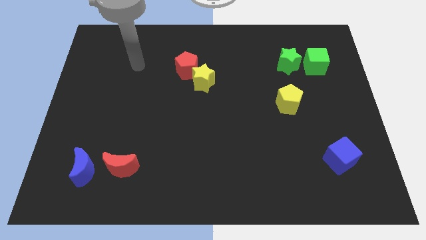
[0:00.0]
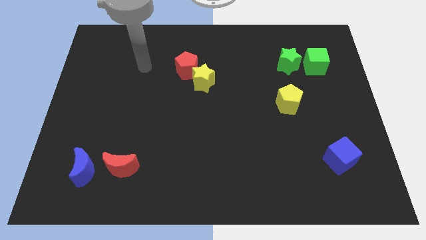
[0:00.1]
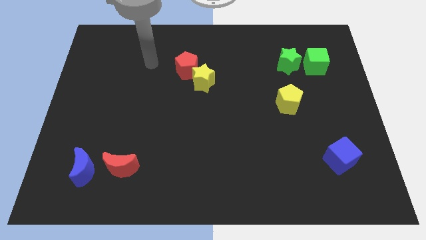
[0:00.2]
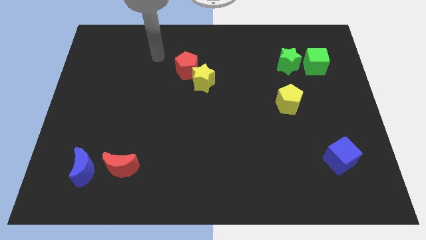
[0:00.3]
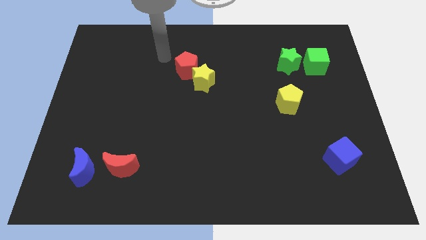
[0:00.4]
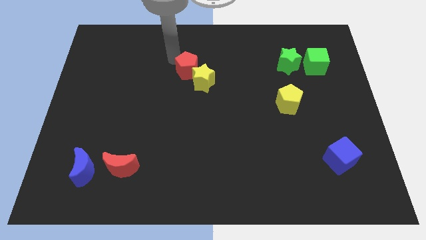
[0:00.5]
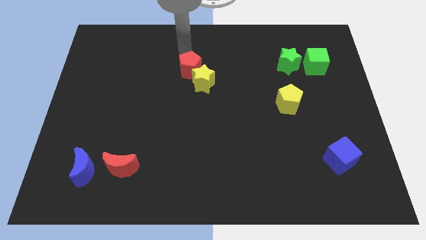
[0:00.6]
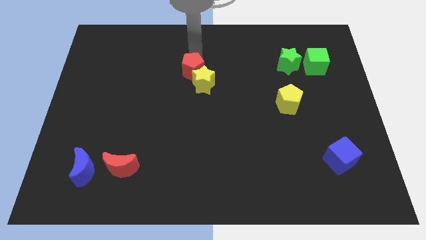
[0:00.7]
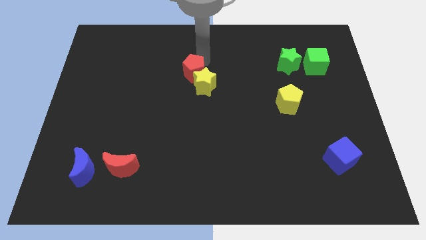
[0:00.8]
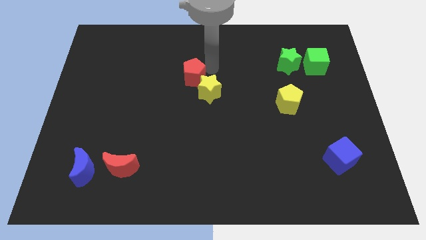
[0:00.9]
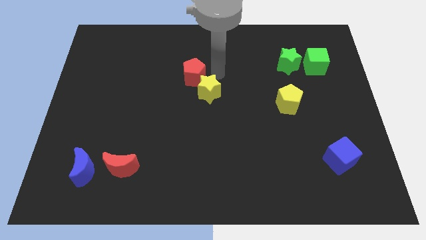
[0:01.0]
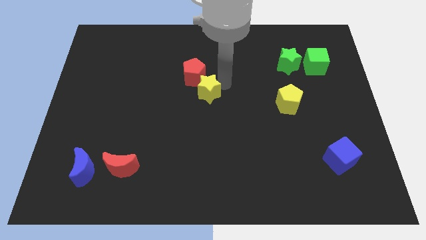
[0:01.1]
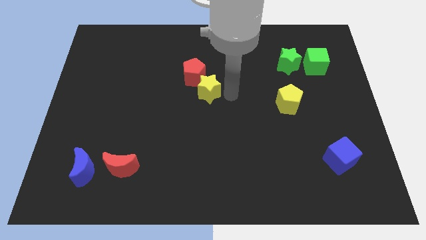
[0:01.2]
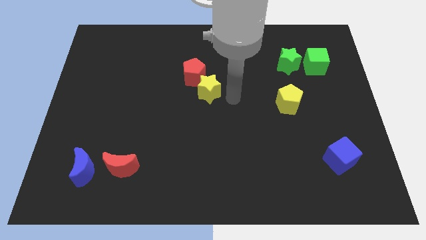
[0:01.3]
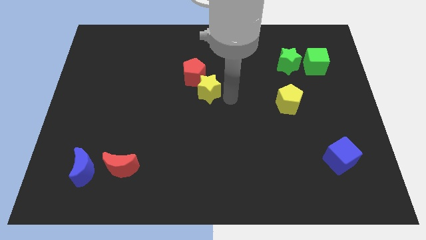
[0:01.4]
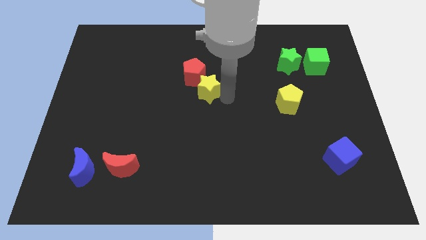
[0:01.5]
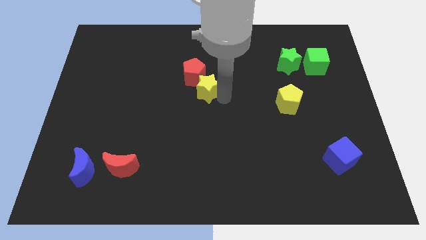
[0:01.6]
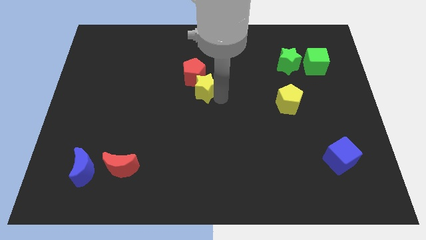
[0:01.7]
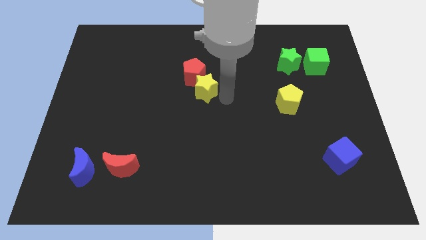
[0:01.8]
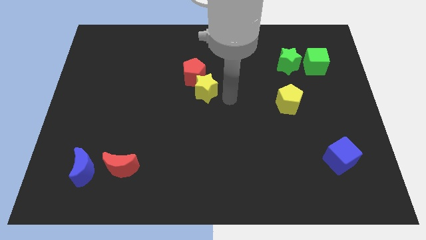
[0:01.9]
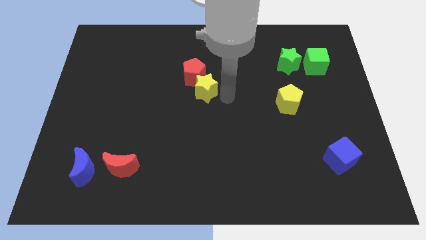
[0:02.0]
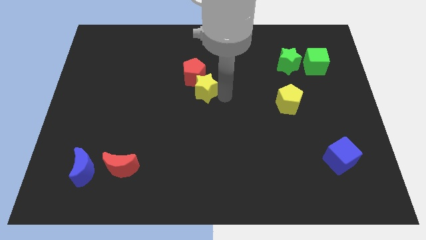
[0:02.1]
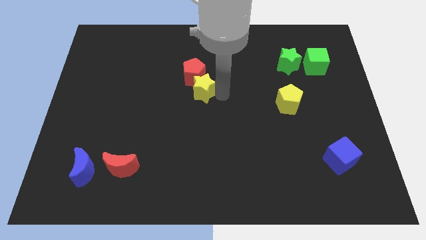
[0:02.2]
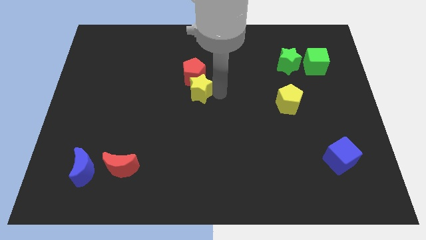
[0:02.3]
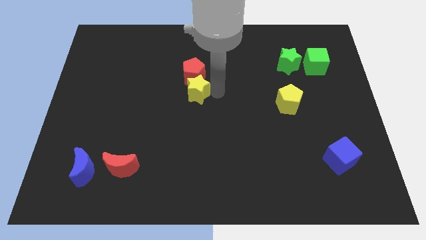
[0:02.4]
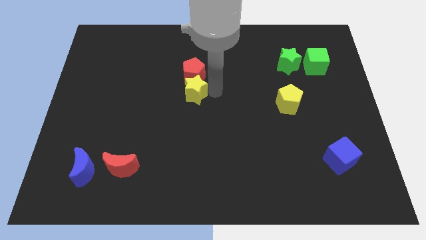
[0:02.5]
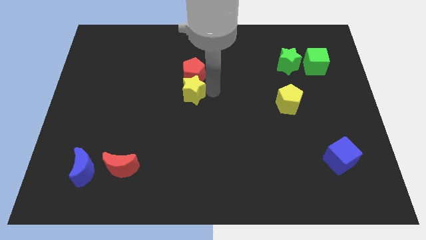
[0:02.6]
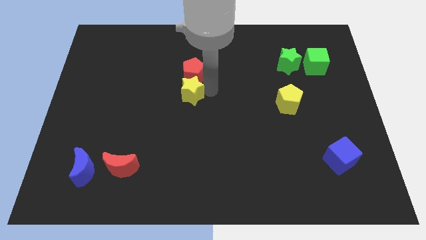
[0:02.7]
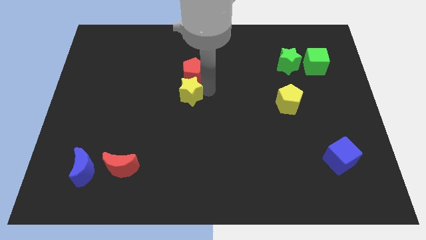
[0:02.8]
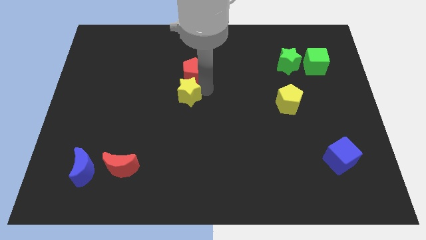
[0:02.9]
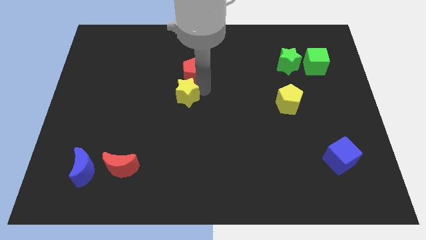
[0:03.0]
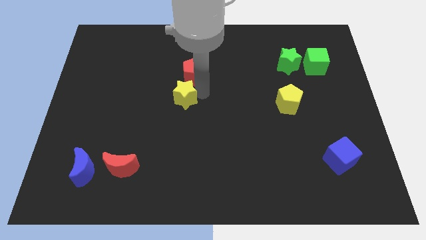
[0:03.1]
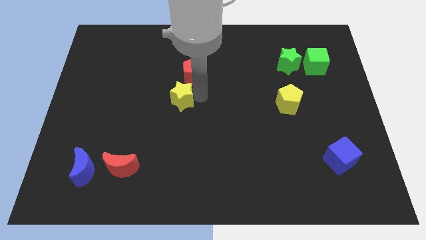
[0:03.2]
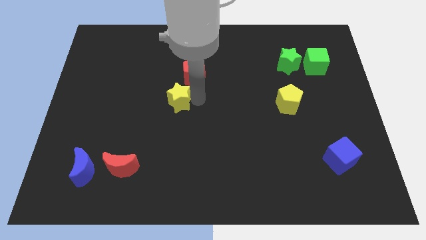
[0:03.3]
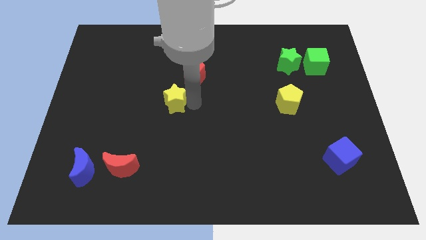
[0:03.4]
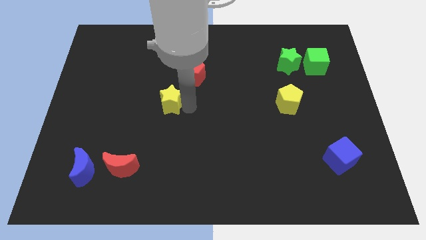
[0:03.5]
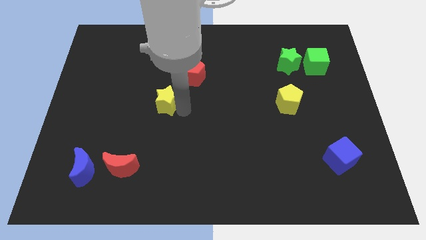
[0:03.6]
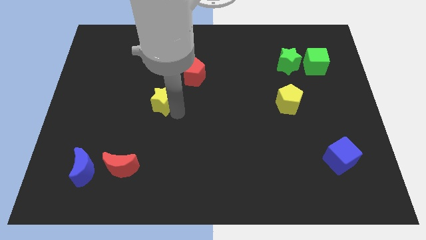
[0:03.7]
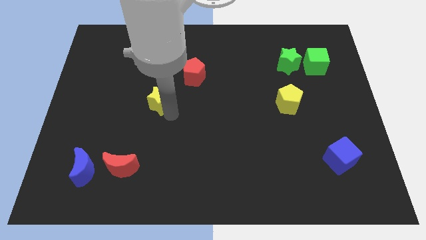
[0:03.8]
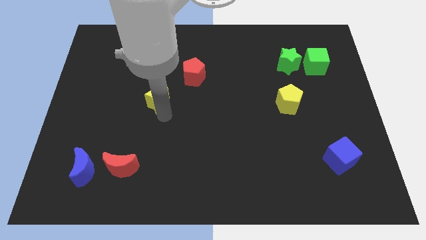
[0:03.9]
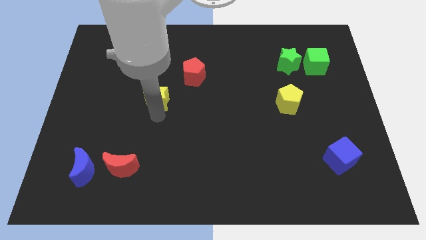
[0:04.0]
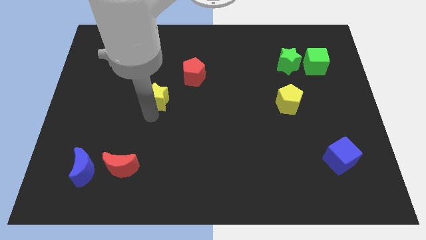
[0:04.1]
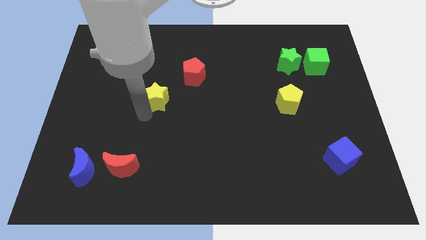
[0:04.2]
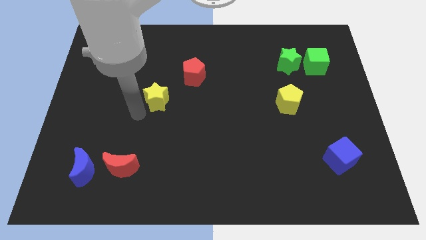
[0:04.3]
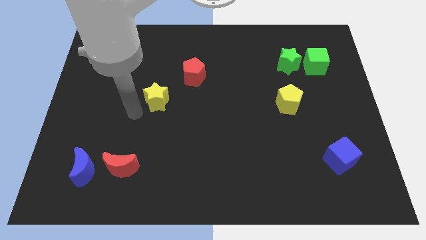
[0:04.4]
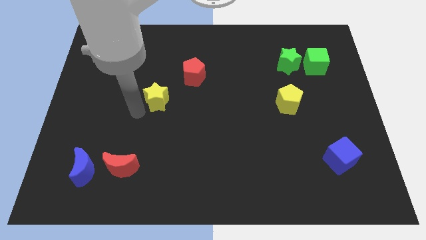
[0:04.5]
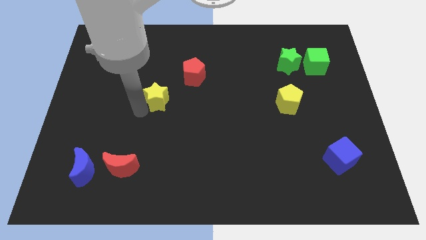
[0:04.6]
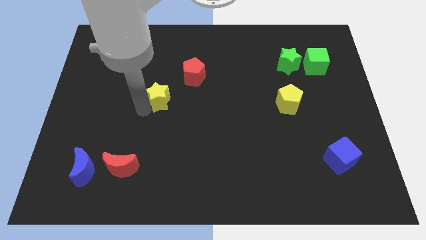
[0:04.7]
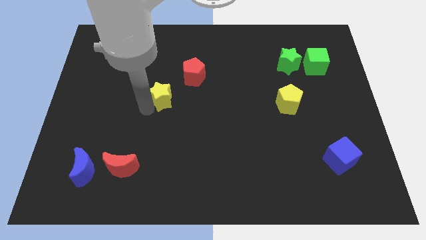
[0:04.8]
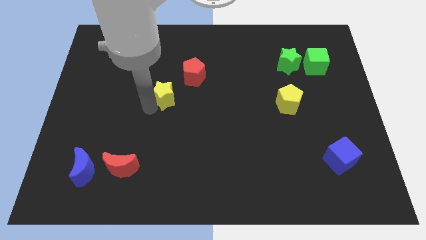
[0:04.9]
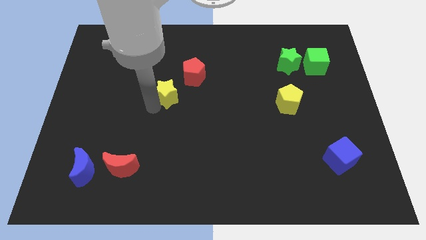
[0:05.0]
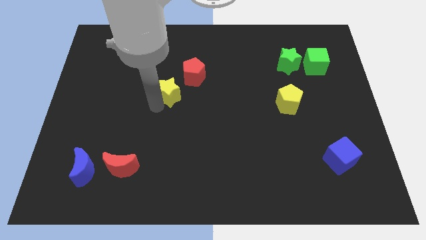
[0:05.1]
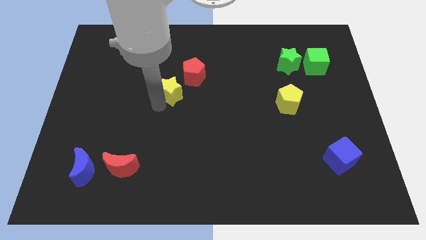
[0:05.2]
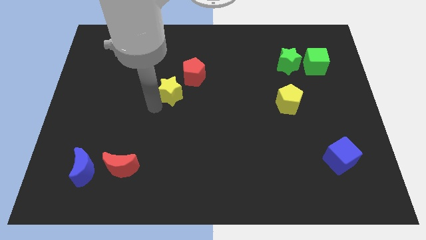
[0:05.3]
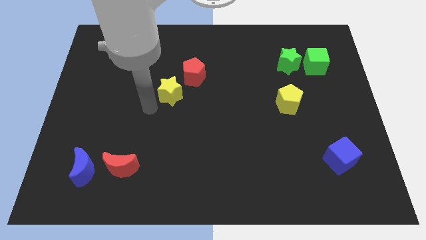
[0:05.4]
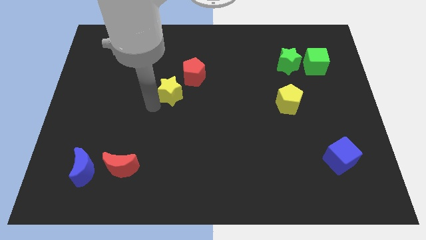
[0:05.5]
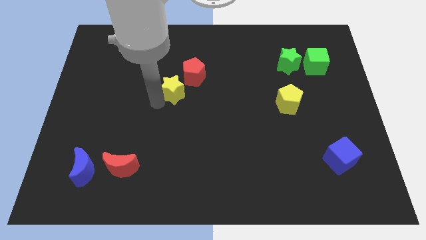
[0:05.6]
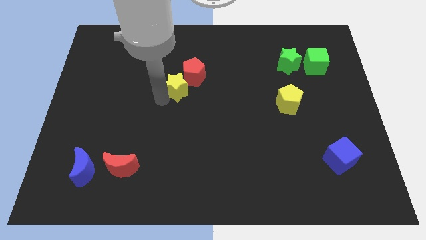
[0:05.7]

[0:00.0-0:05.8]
move the yellow star to the left of the red pentagon

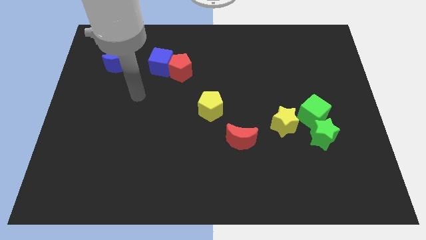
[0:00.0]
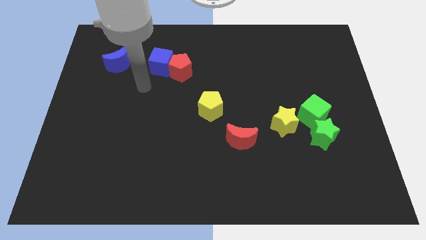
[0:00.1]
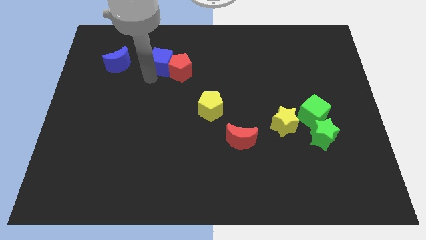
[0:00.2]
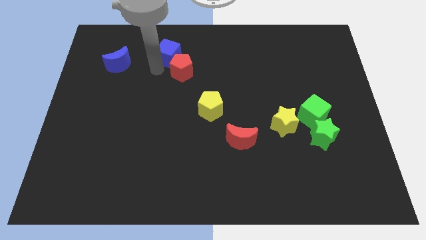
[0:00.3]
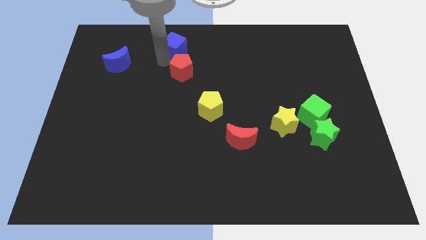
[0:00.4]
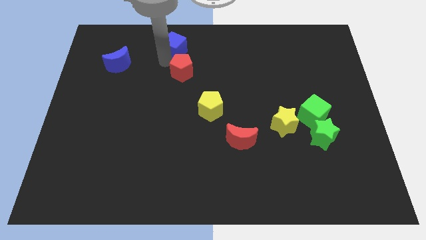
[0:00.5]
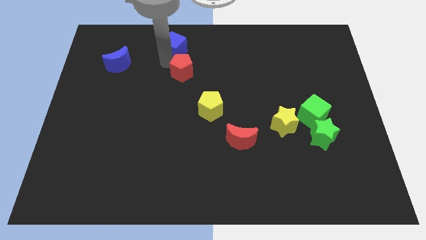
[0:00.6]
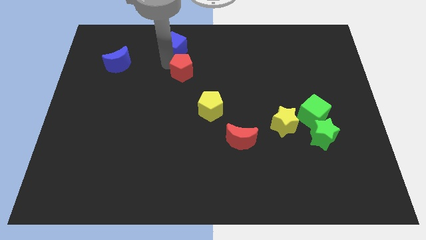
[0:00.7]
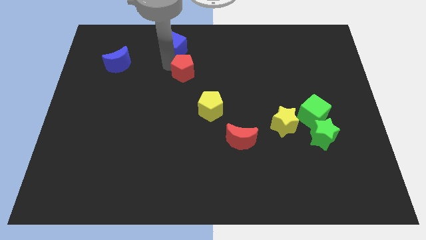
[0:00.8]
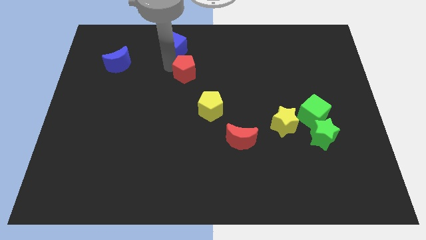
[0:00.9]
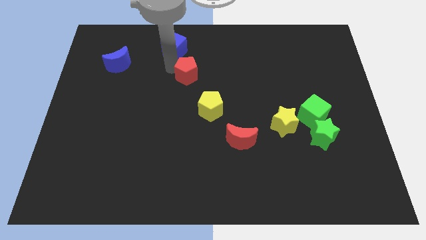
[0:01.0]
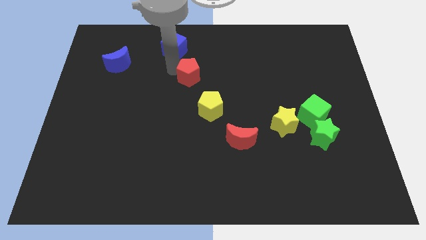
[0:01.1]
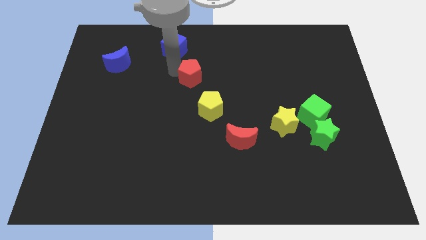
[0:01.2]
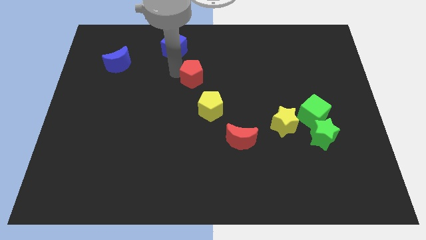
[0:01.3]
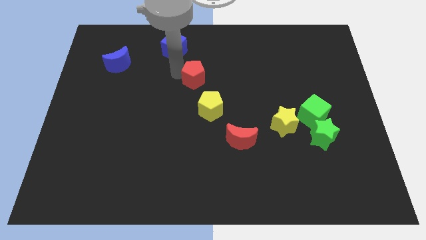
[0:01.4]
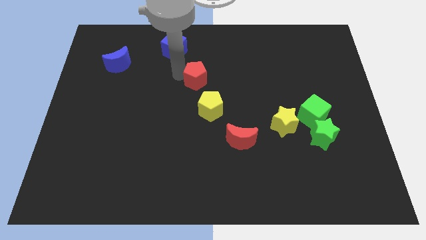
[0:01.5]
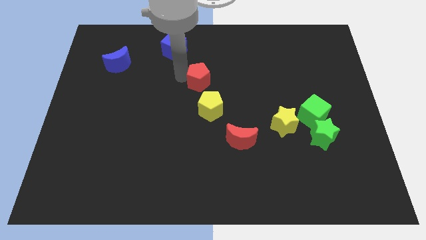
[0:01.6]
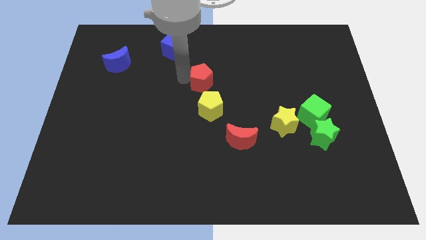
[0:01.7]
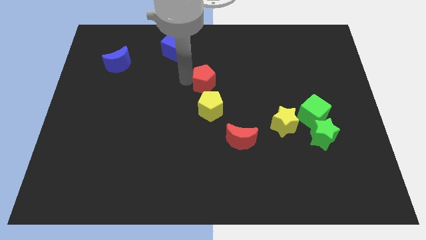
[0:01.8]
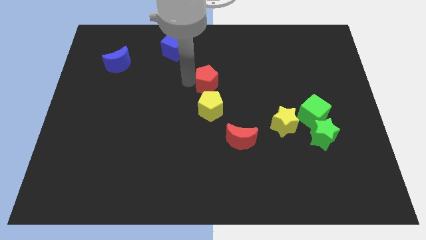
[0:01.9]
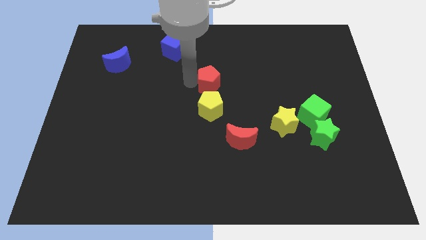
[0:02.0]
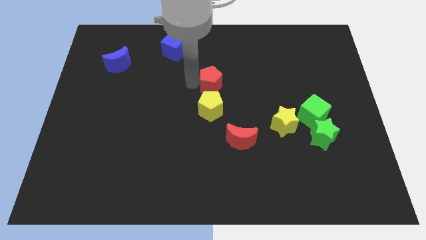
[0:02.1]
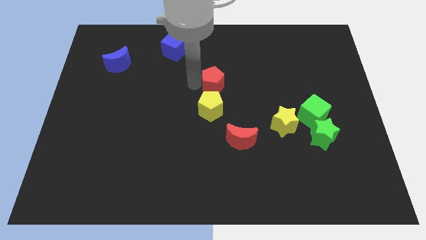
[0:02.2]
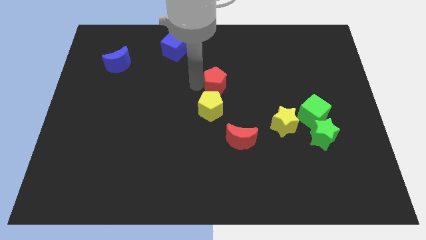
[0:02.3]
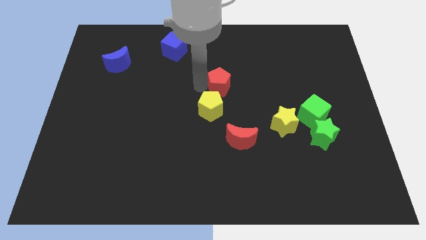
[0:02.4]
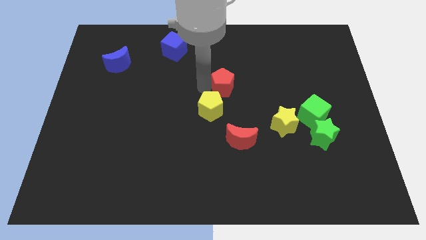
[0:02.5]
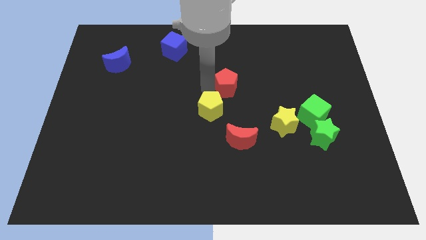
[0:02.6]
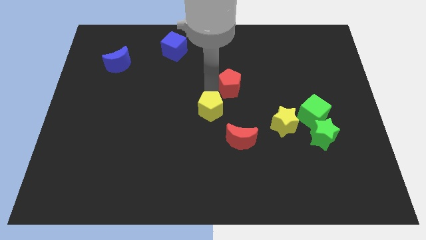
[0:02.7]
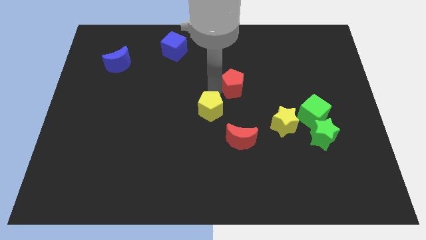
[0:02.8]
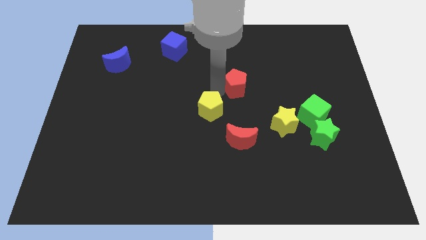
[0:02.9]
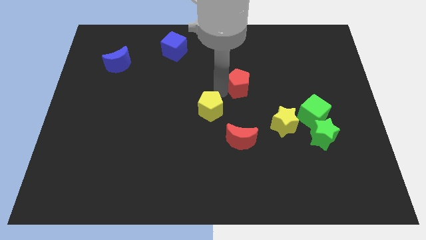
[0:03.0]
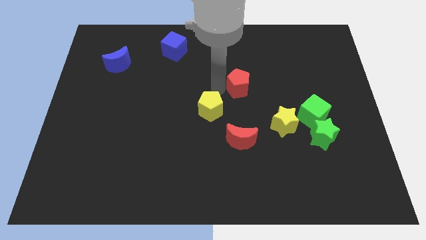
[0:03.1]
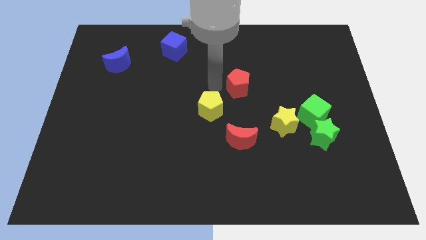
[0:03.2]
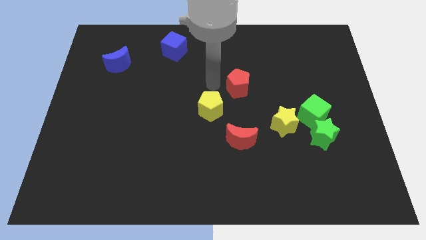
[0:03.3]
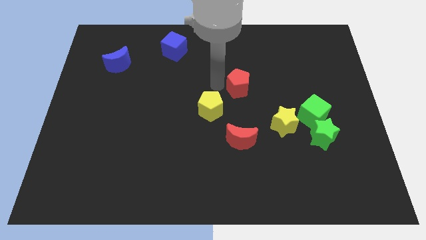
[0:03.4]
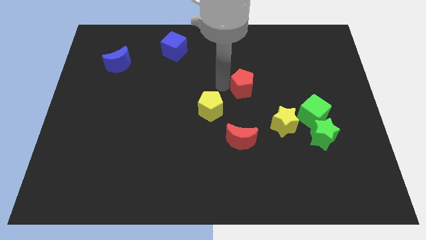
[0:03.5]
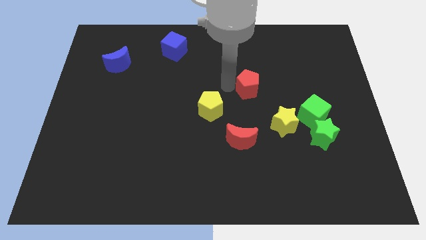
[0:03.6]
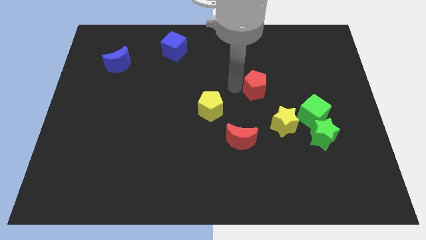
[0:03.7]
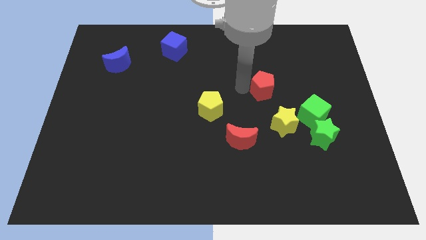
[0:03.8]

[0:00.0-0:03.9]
slide the red pentagon to the top side of the yellow star
